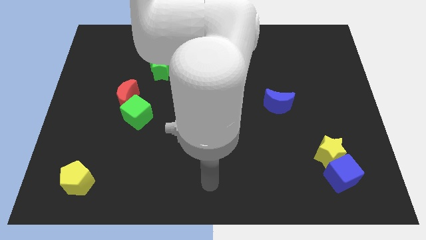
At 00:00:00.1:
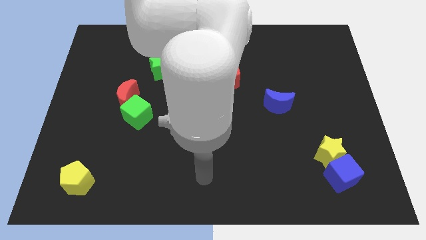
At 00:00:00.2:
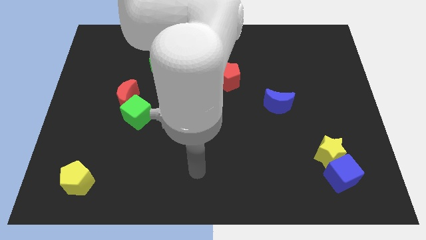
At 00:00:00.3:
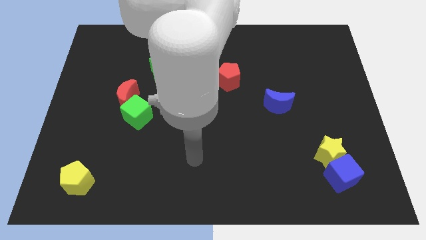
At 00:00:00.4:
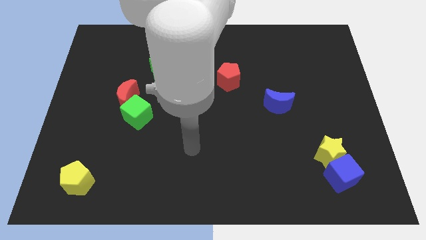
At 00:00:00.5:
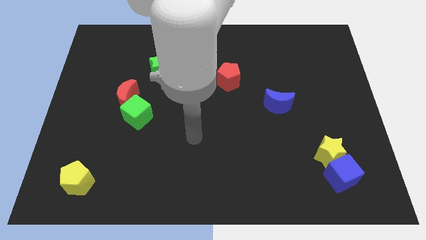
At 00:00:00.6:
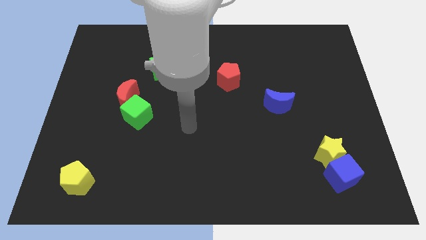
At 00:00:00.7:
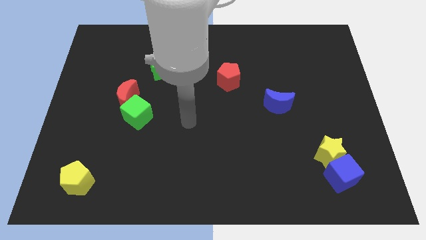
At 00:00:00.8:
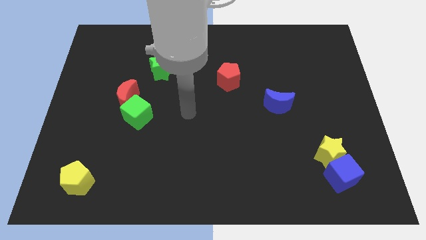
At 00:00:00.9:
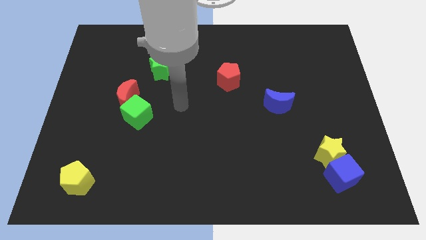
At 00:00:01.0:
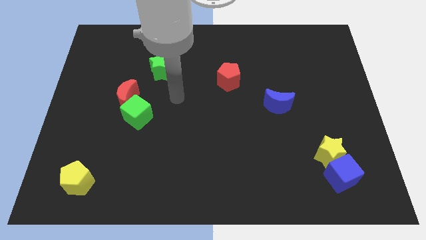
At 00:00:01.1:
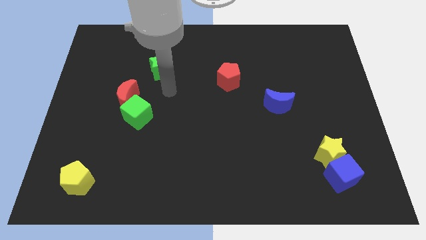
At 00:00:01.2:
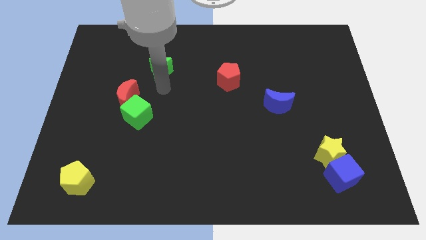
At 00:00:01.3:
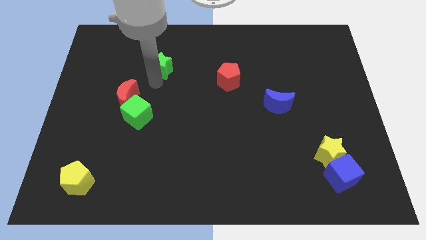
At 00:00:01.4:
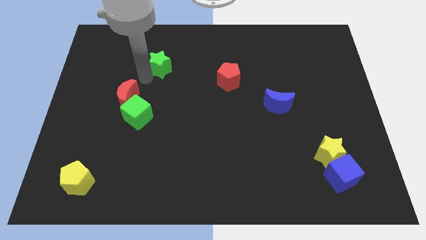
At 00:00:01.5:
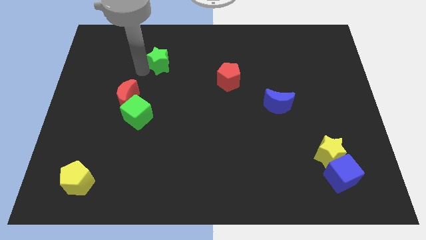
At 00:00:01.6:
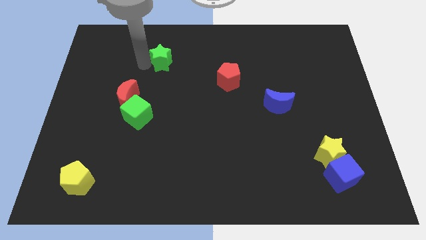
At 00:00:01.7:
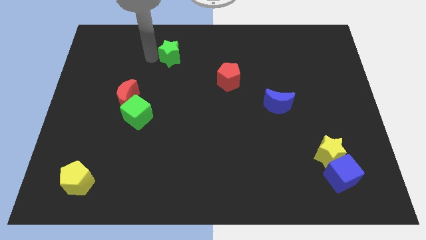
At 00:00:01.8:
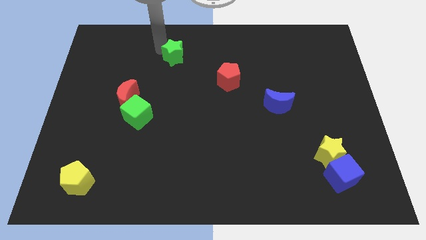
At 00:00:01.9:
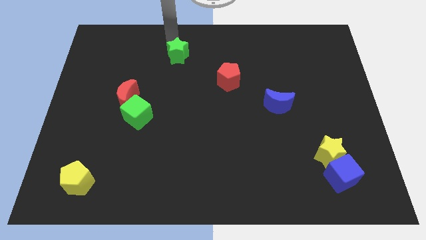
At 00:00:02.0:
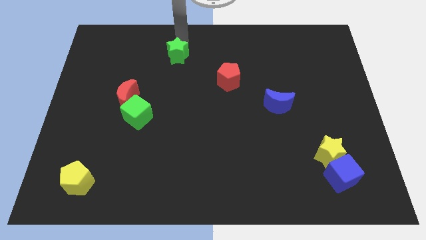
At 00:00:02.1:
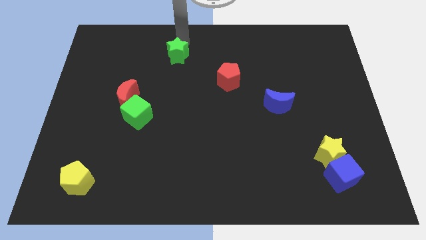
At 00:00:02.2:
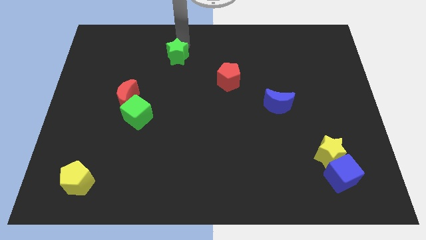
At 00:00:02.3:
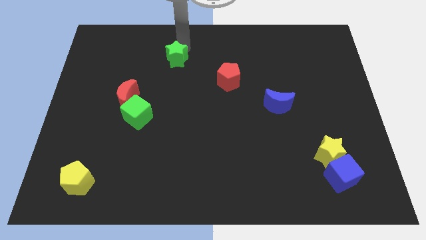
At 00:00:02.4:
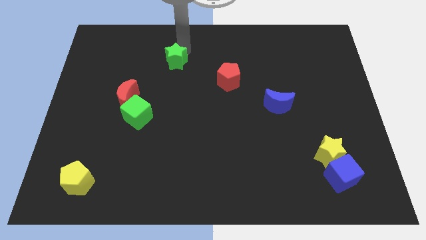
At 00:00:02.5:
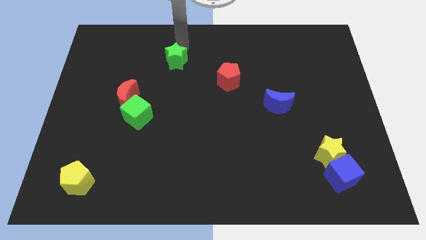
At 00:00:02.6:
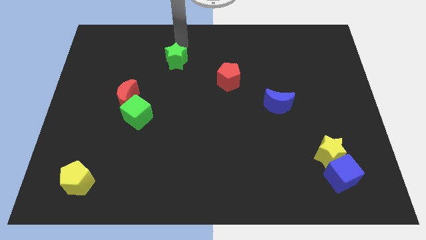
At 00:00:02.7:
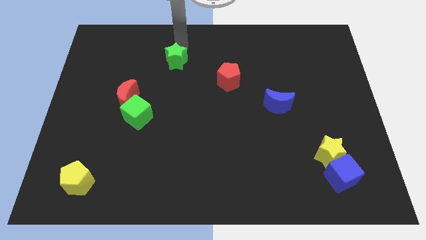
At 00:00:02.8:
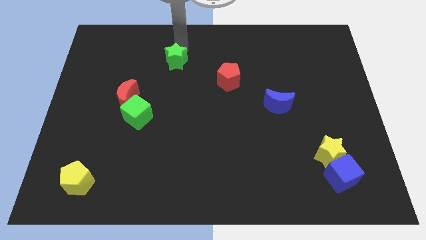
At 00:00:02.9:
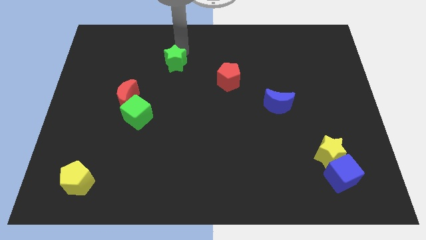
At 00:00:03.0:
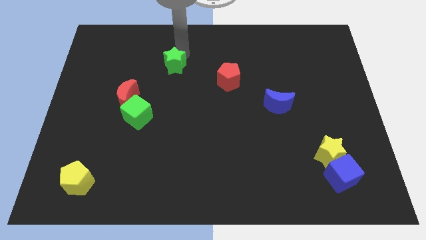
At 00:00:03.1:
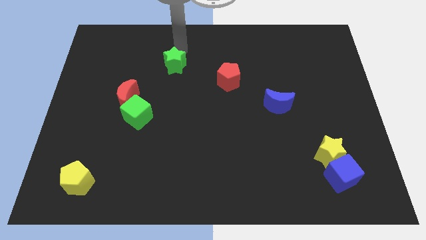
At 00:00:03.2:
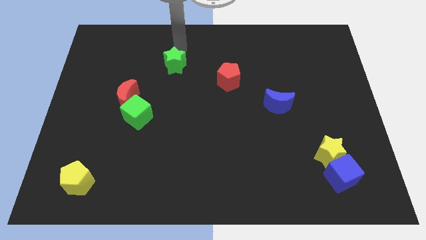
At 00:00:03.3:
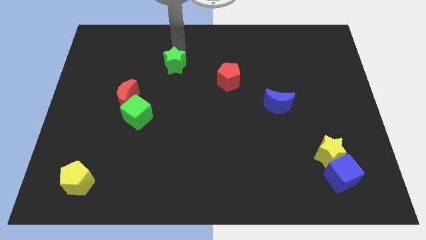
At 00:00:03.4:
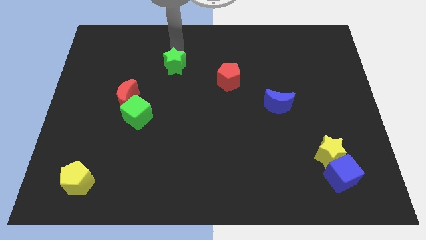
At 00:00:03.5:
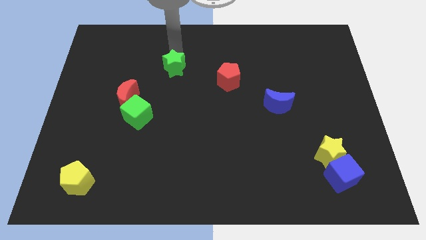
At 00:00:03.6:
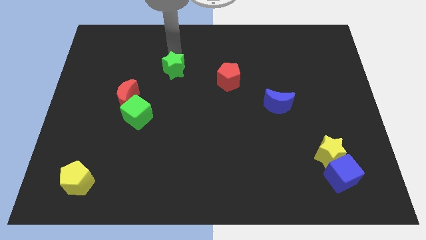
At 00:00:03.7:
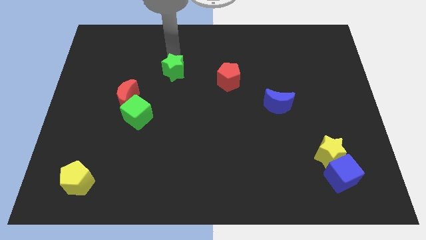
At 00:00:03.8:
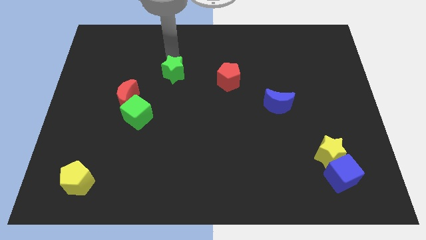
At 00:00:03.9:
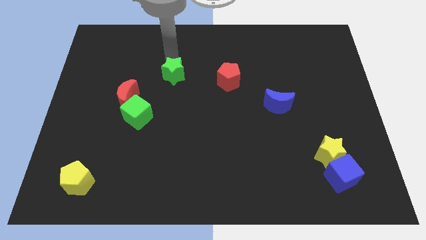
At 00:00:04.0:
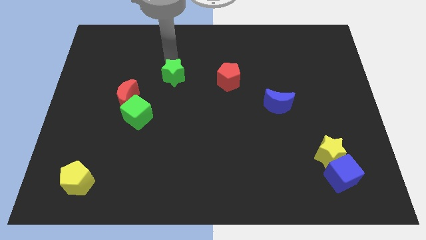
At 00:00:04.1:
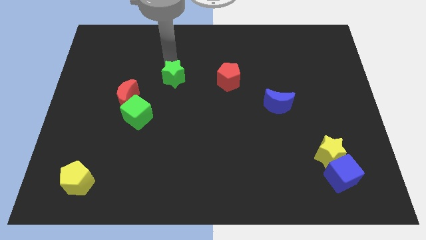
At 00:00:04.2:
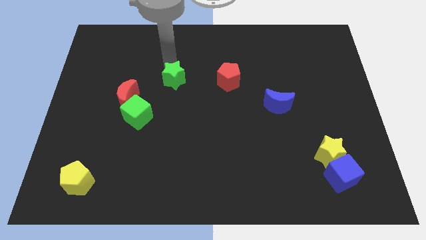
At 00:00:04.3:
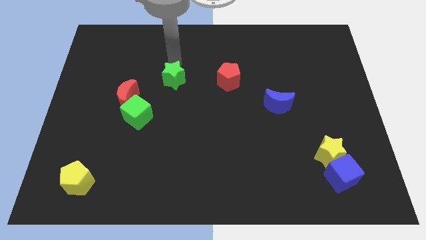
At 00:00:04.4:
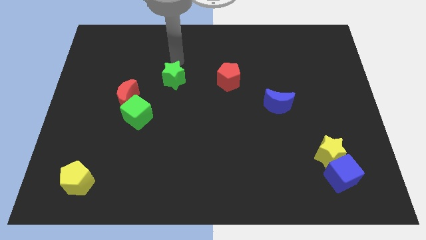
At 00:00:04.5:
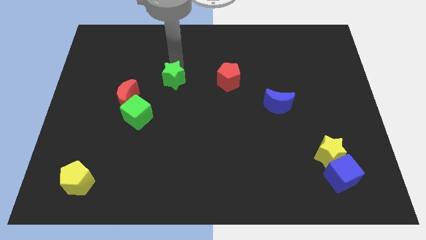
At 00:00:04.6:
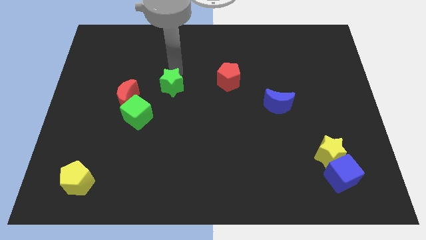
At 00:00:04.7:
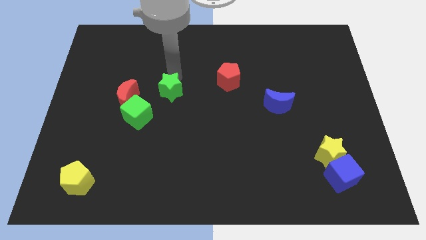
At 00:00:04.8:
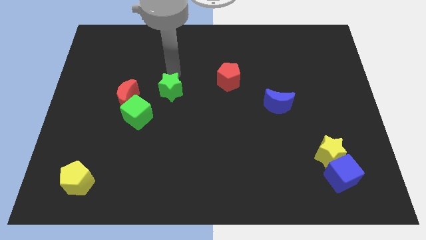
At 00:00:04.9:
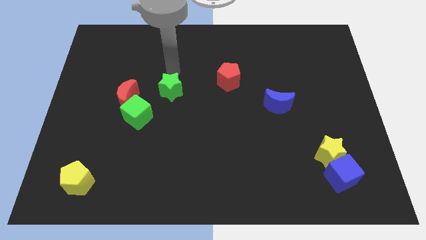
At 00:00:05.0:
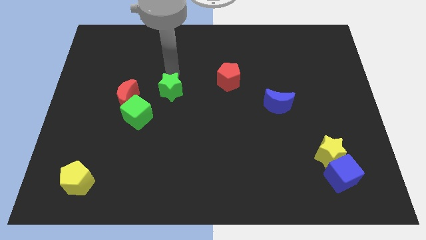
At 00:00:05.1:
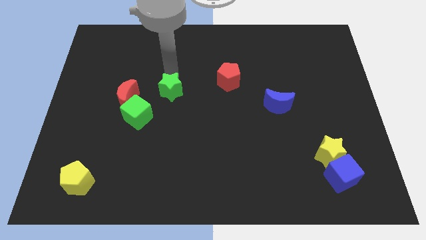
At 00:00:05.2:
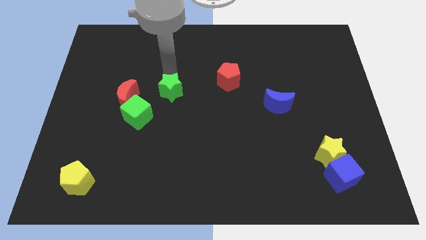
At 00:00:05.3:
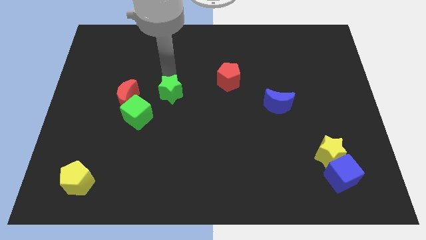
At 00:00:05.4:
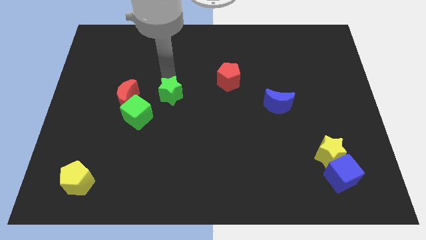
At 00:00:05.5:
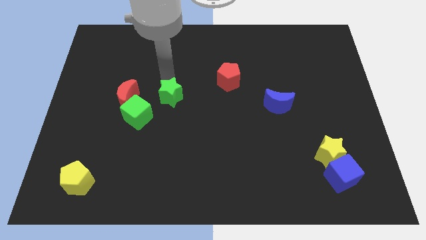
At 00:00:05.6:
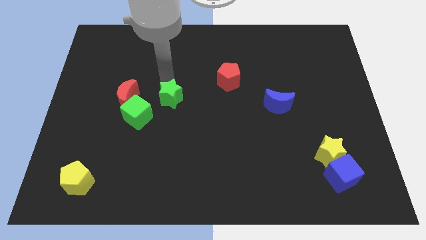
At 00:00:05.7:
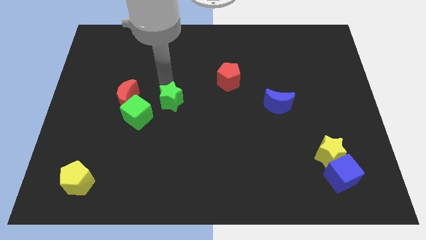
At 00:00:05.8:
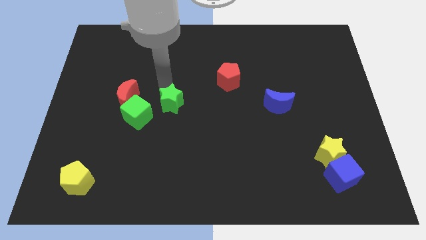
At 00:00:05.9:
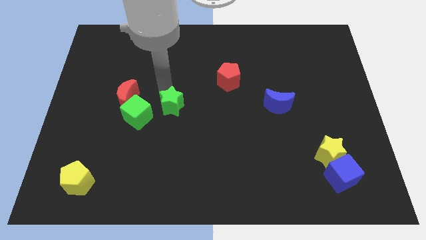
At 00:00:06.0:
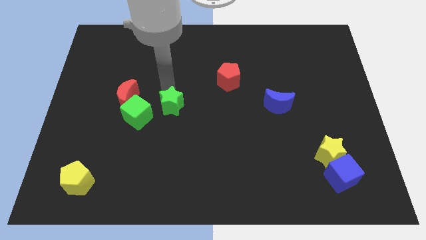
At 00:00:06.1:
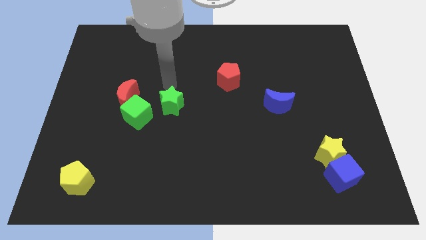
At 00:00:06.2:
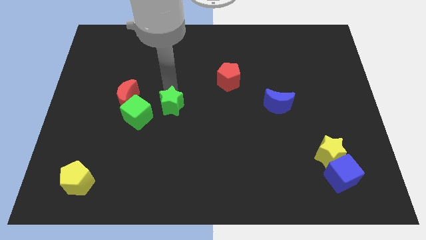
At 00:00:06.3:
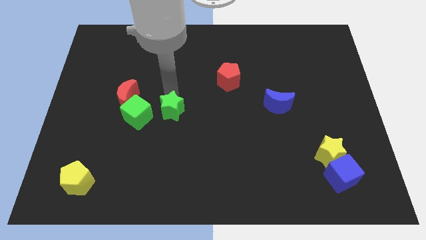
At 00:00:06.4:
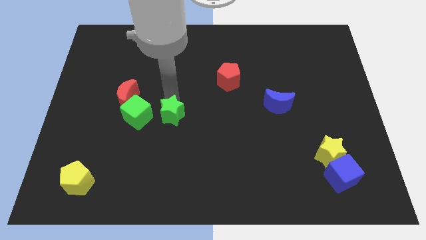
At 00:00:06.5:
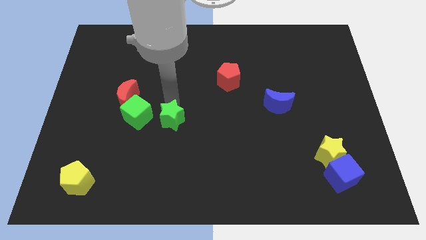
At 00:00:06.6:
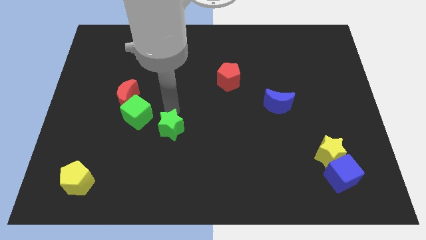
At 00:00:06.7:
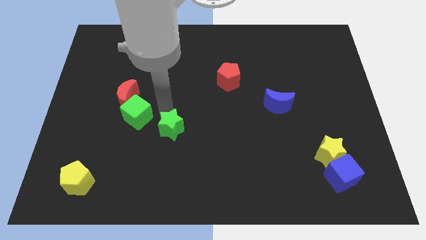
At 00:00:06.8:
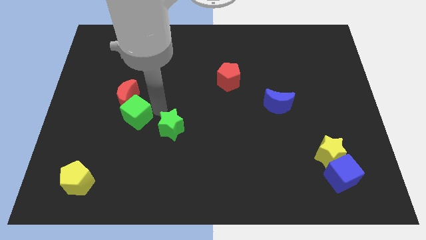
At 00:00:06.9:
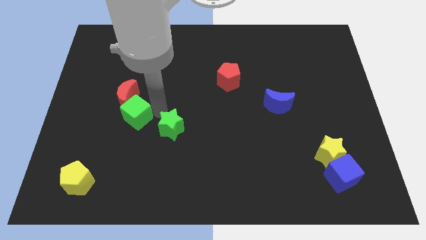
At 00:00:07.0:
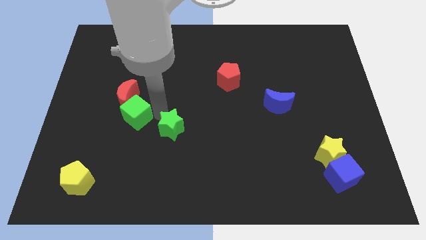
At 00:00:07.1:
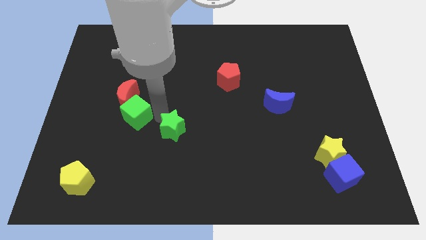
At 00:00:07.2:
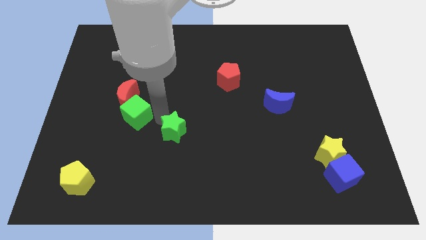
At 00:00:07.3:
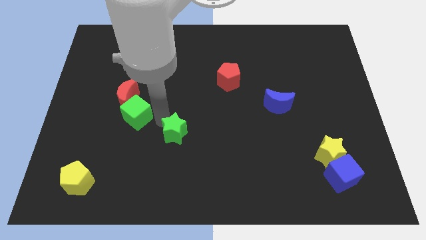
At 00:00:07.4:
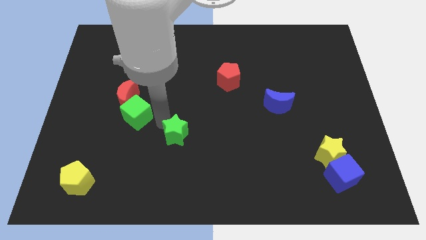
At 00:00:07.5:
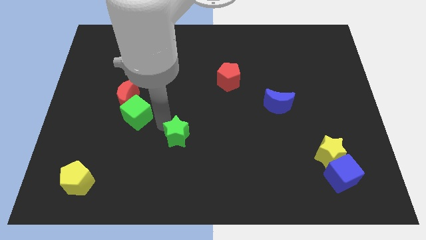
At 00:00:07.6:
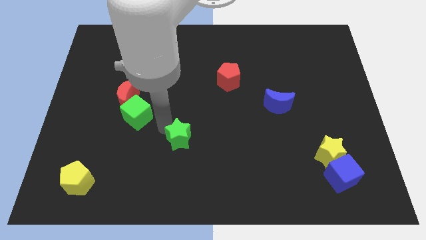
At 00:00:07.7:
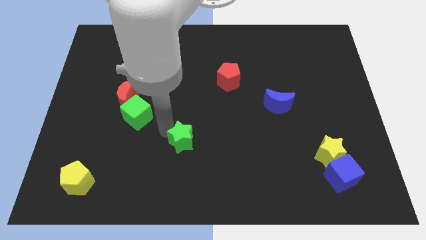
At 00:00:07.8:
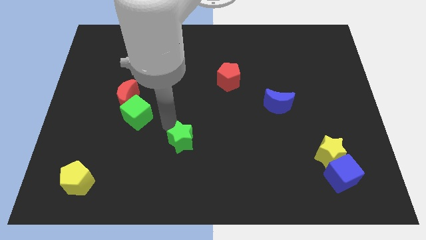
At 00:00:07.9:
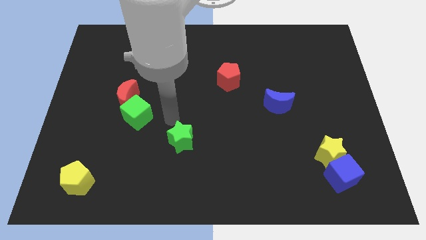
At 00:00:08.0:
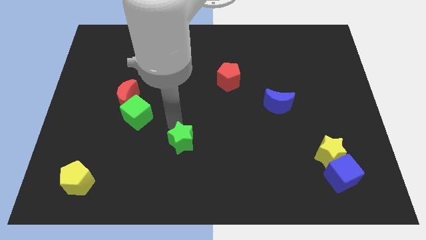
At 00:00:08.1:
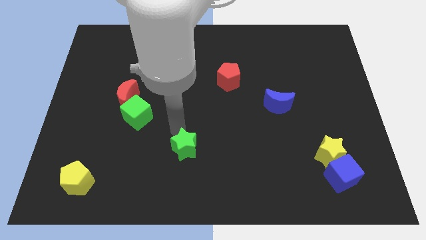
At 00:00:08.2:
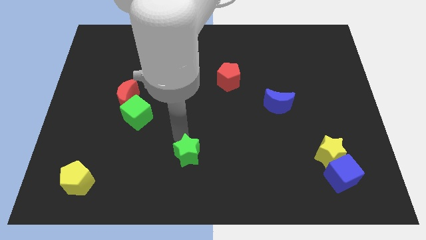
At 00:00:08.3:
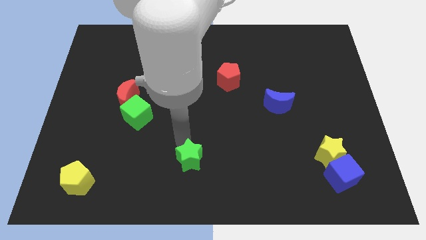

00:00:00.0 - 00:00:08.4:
put the green star to the bottom side
